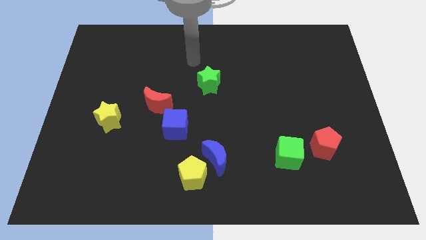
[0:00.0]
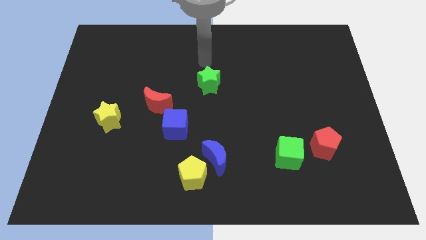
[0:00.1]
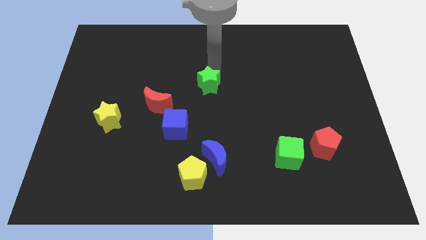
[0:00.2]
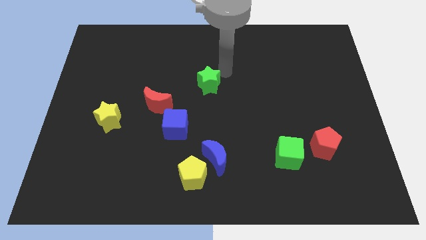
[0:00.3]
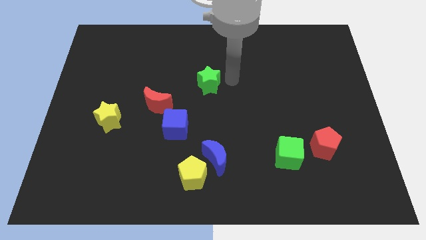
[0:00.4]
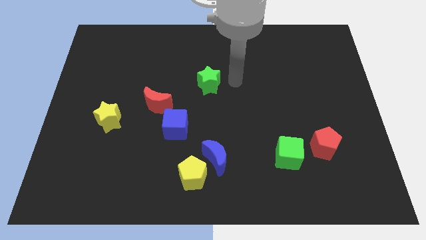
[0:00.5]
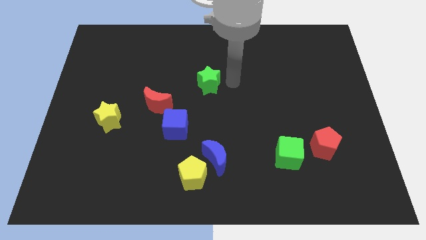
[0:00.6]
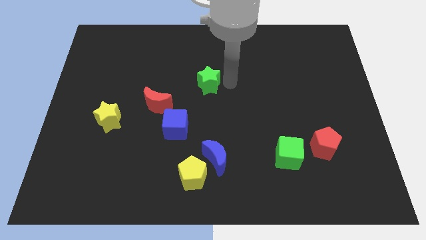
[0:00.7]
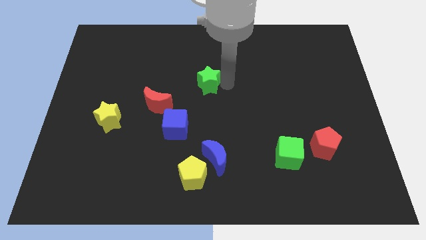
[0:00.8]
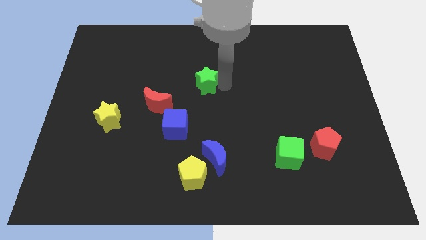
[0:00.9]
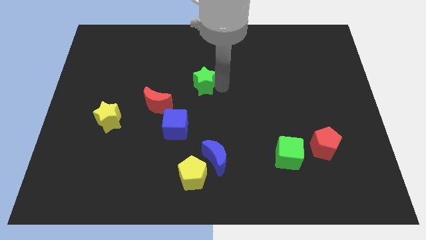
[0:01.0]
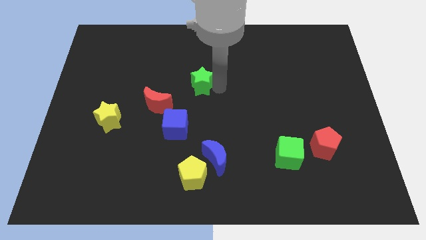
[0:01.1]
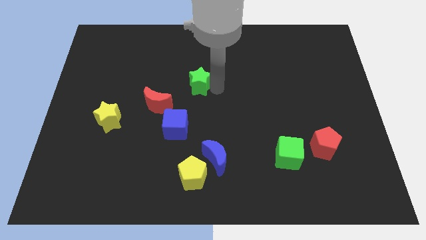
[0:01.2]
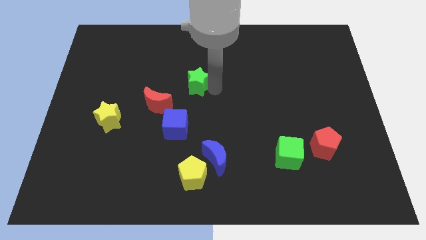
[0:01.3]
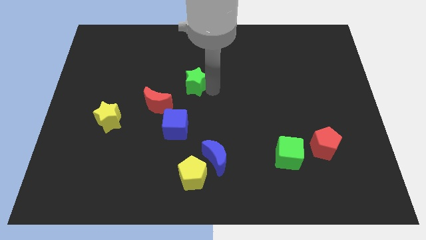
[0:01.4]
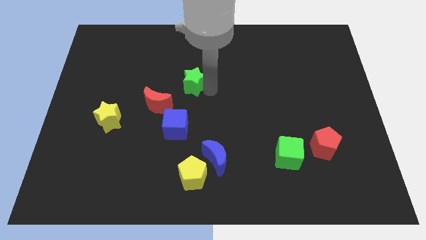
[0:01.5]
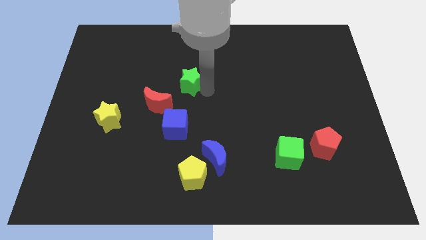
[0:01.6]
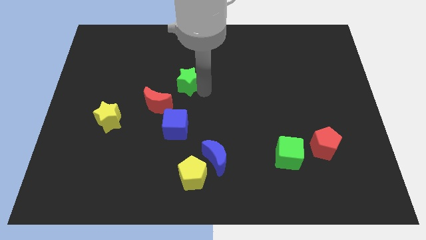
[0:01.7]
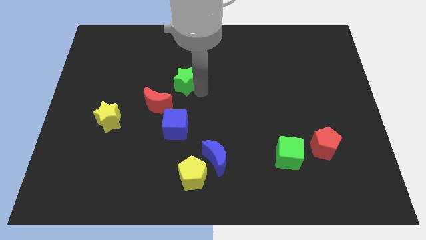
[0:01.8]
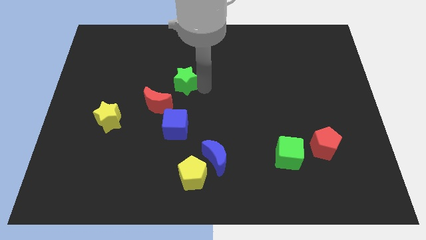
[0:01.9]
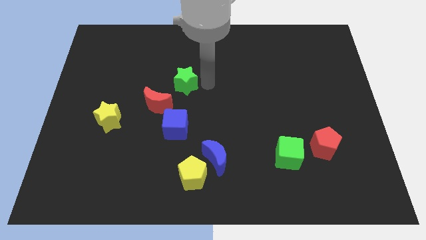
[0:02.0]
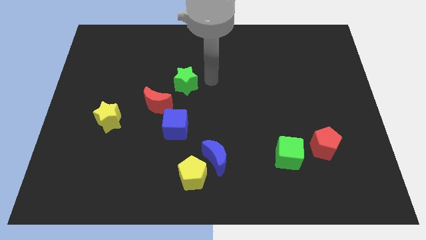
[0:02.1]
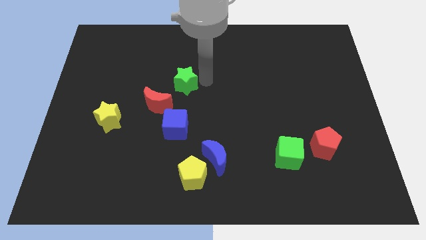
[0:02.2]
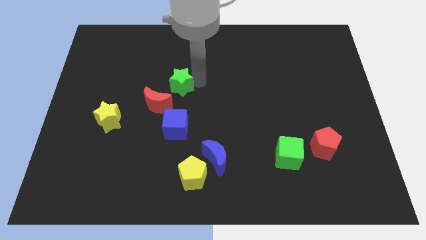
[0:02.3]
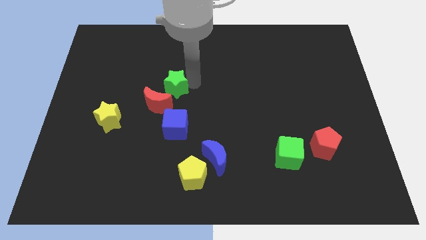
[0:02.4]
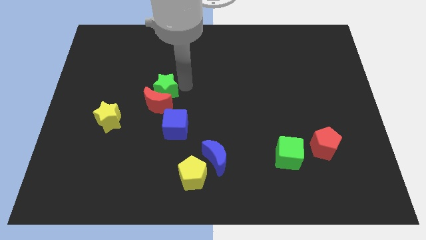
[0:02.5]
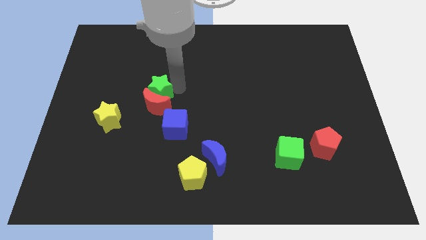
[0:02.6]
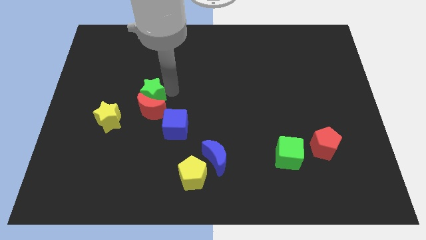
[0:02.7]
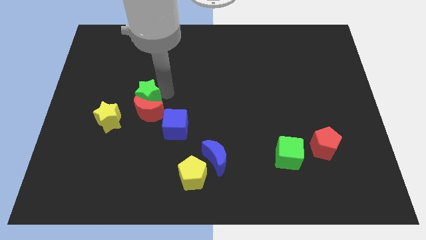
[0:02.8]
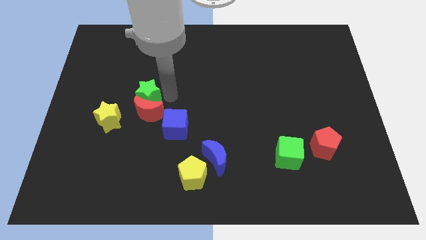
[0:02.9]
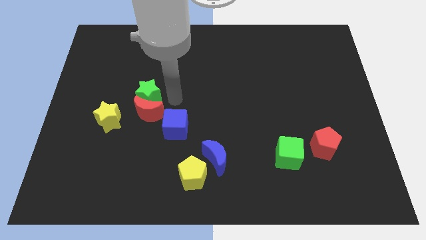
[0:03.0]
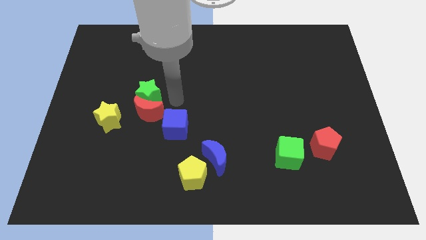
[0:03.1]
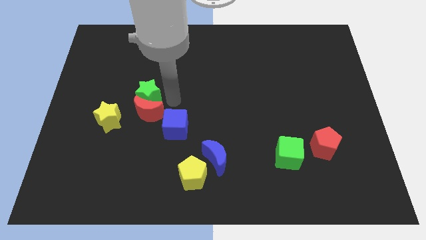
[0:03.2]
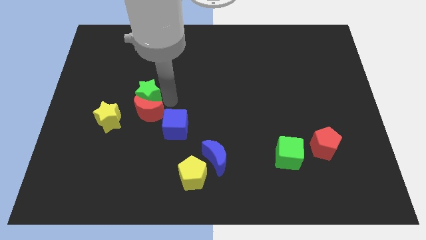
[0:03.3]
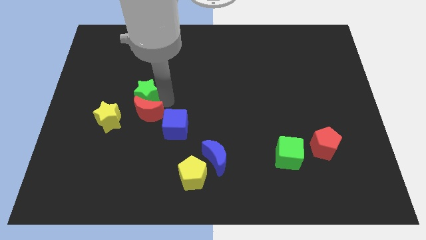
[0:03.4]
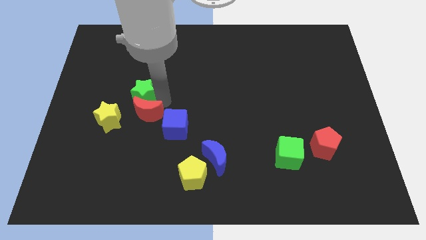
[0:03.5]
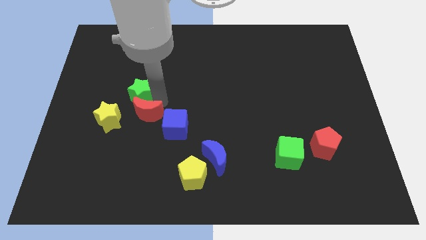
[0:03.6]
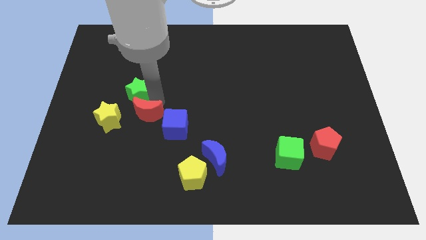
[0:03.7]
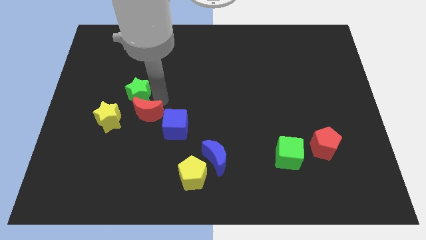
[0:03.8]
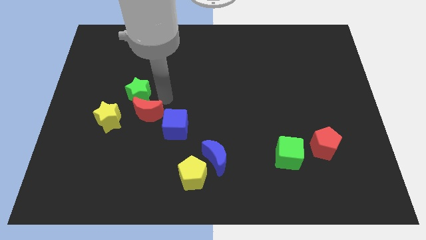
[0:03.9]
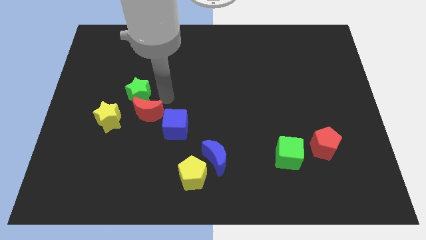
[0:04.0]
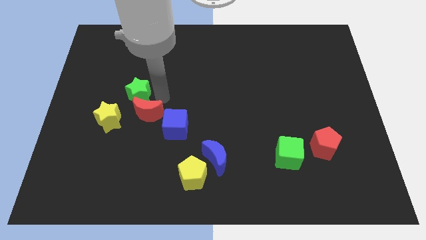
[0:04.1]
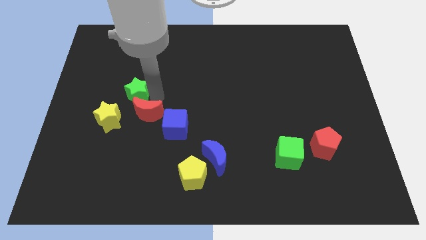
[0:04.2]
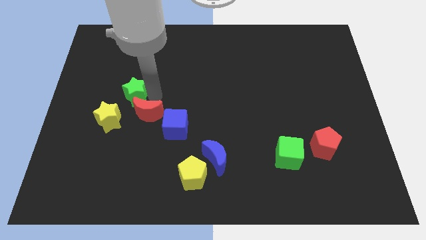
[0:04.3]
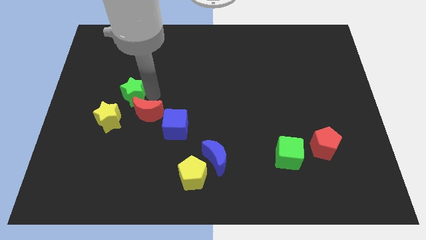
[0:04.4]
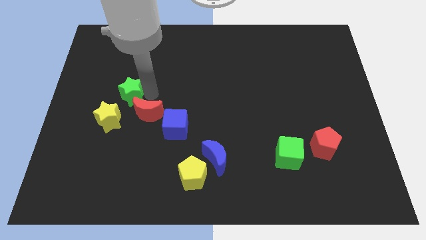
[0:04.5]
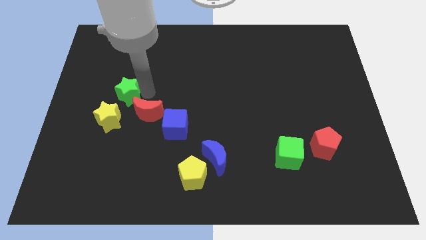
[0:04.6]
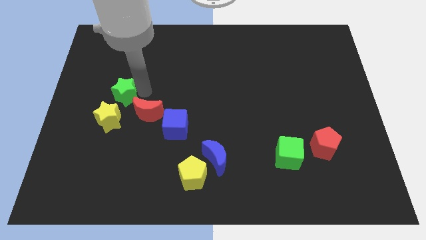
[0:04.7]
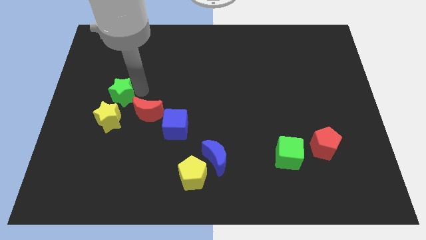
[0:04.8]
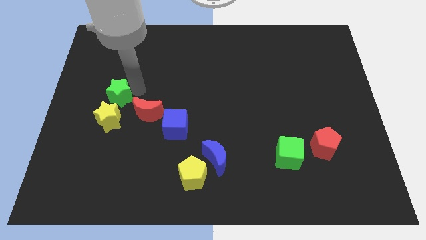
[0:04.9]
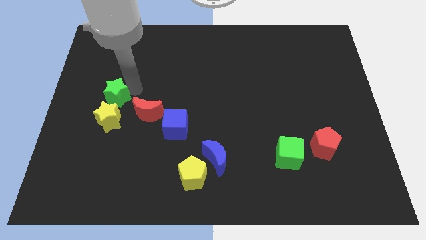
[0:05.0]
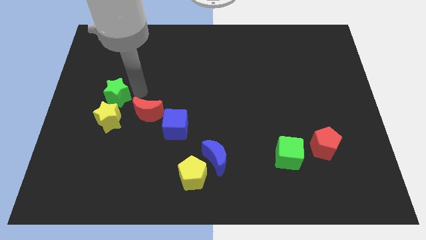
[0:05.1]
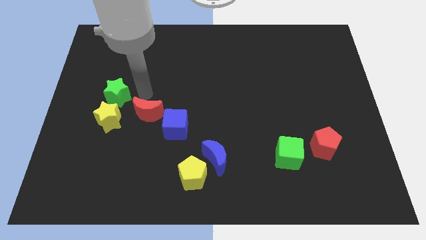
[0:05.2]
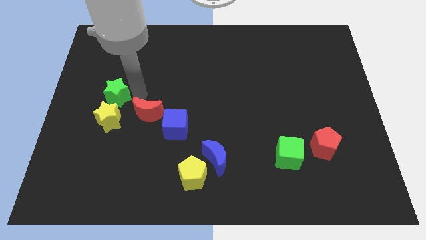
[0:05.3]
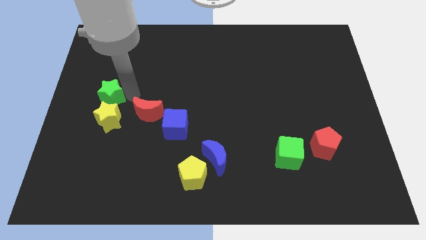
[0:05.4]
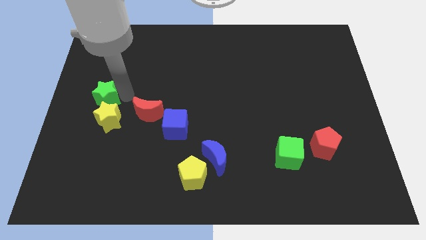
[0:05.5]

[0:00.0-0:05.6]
push the green star to the left side of the board
